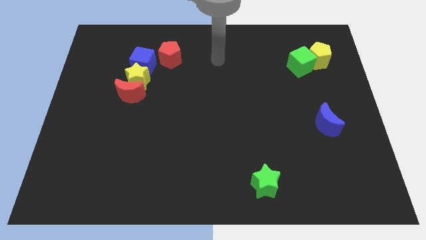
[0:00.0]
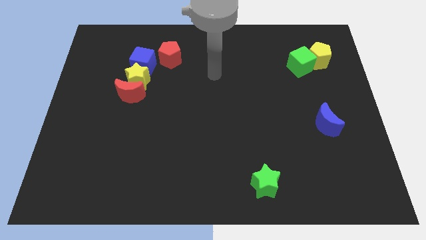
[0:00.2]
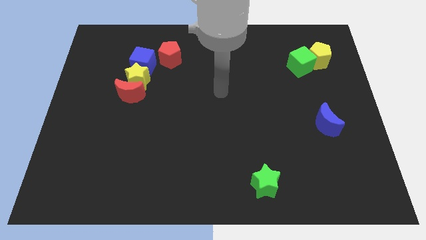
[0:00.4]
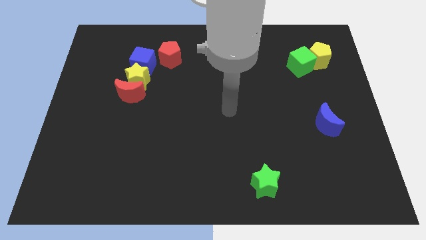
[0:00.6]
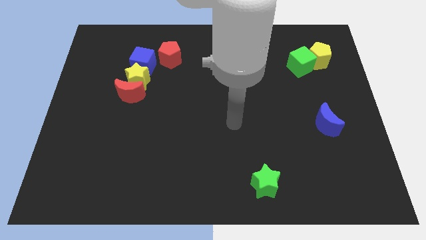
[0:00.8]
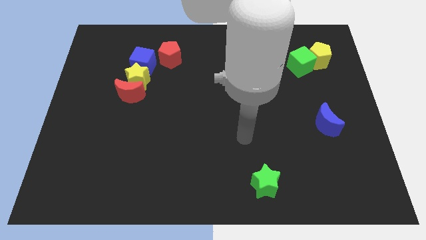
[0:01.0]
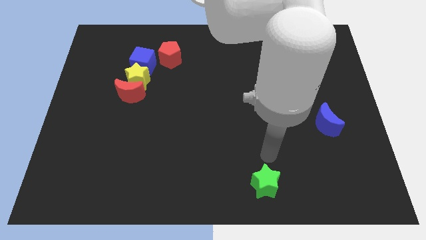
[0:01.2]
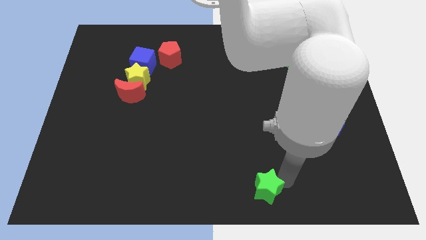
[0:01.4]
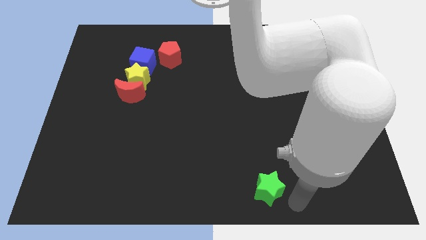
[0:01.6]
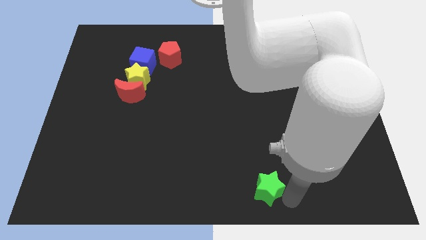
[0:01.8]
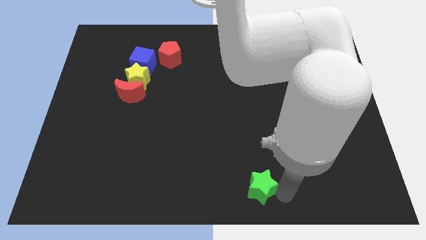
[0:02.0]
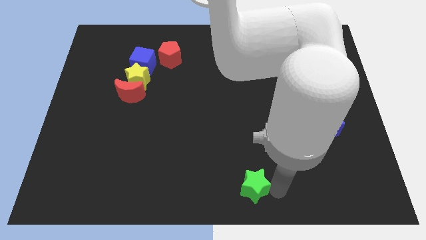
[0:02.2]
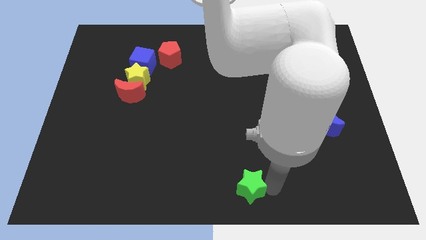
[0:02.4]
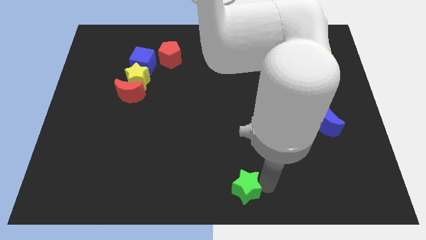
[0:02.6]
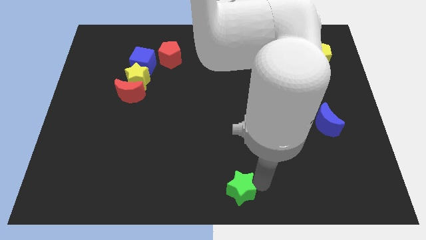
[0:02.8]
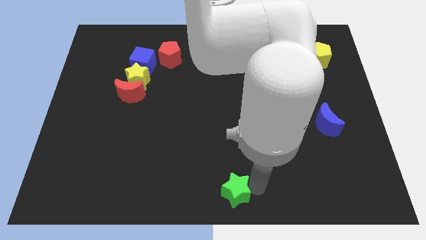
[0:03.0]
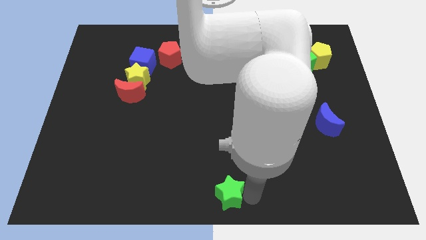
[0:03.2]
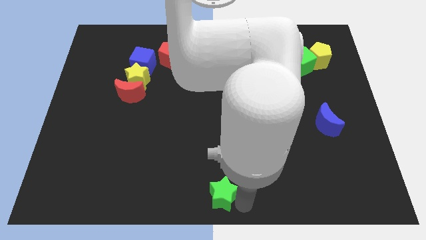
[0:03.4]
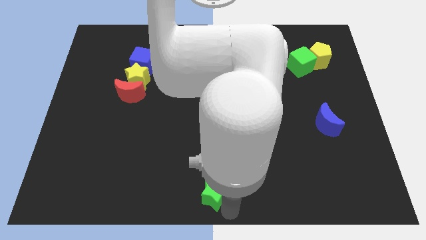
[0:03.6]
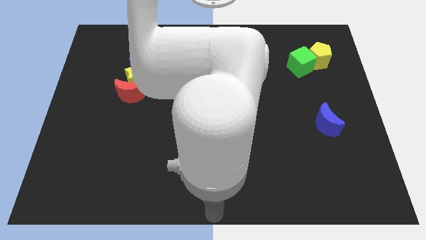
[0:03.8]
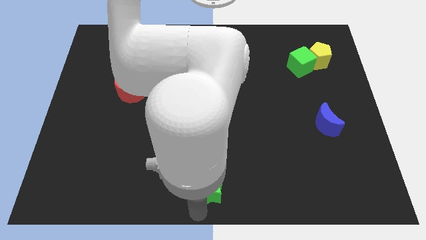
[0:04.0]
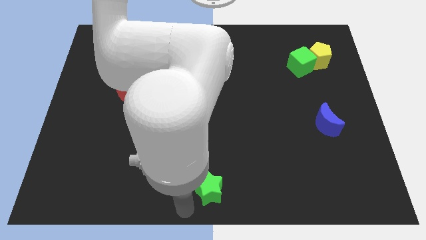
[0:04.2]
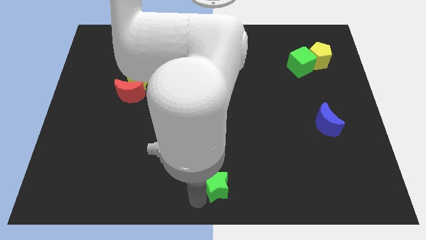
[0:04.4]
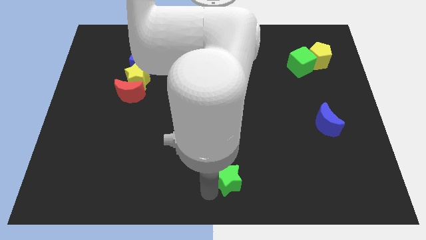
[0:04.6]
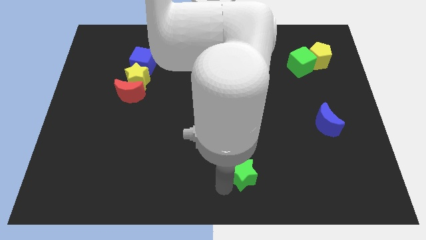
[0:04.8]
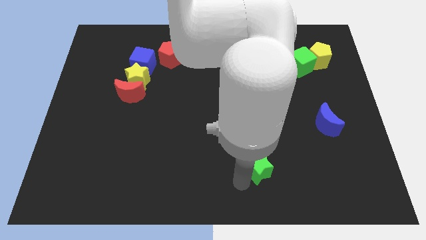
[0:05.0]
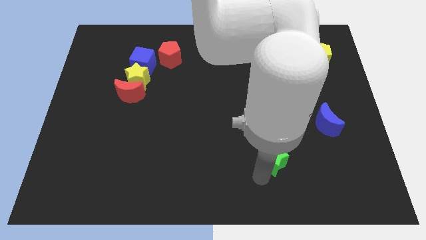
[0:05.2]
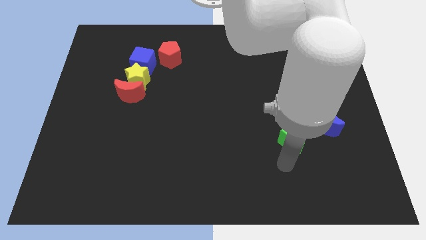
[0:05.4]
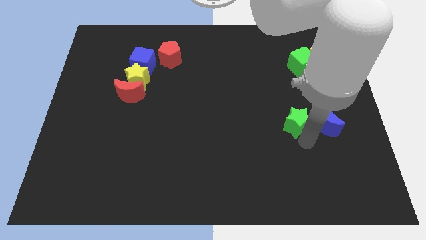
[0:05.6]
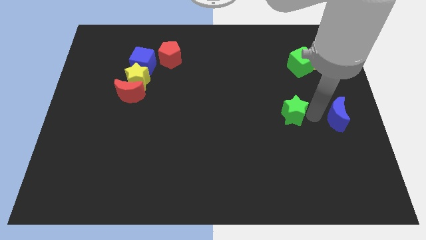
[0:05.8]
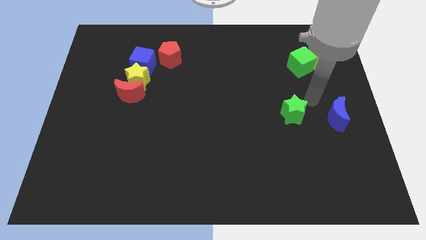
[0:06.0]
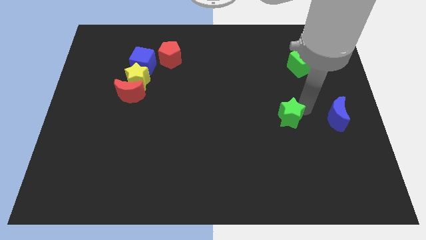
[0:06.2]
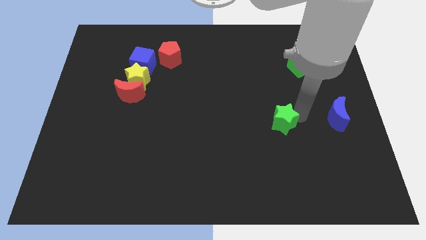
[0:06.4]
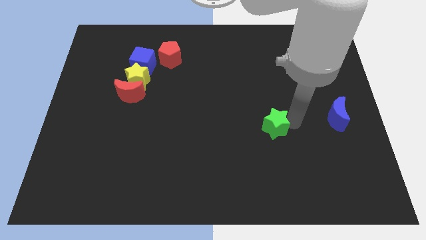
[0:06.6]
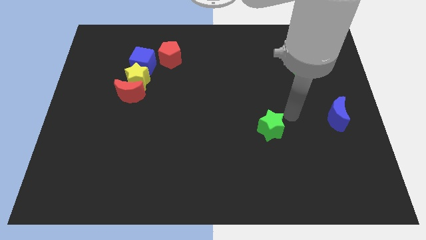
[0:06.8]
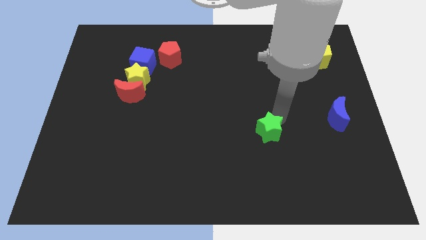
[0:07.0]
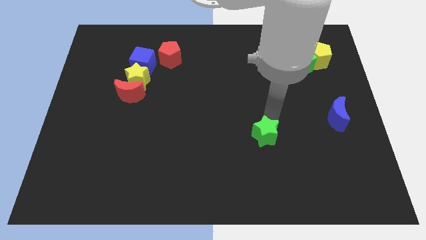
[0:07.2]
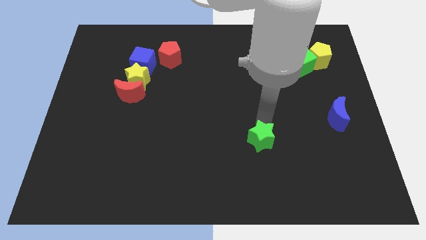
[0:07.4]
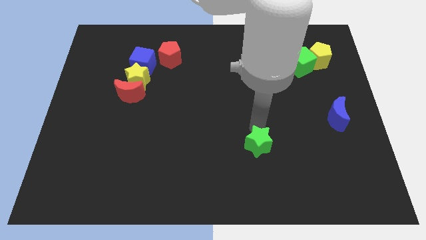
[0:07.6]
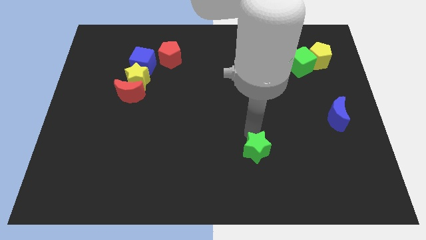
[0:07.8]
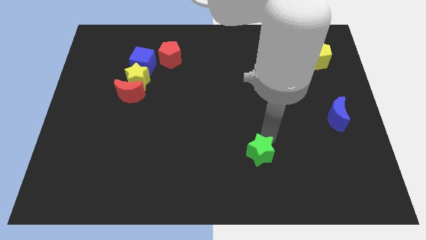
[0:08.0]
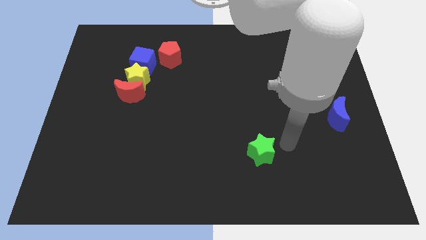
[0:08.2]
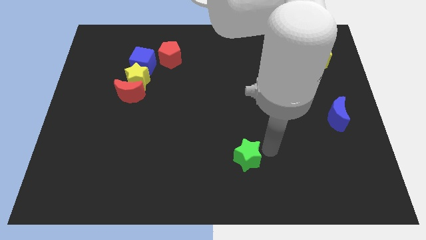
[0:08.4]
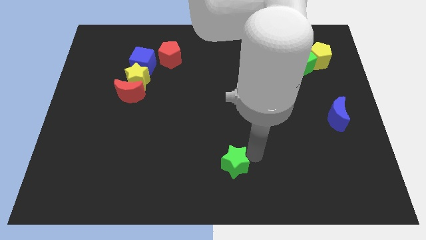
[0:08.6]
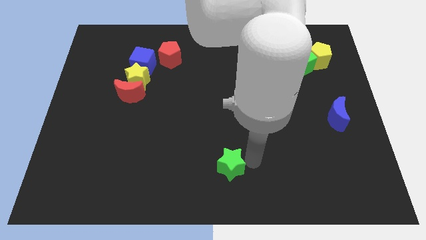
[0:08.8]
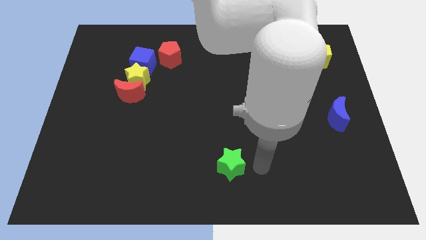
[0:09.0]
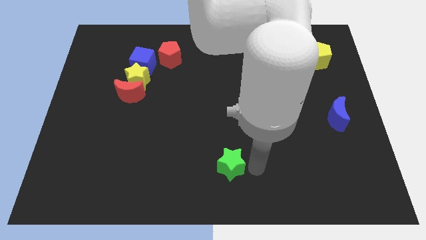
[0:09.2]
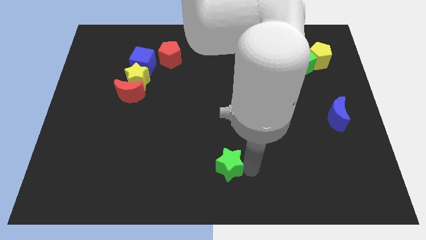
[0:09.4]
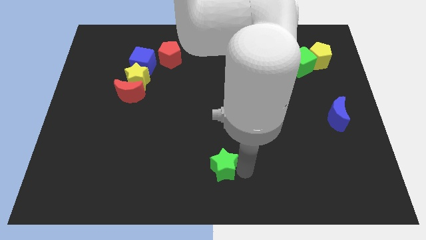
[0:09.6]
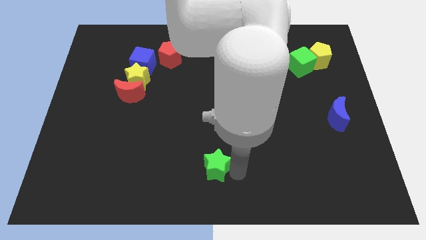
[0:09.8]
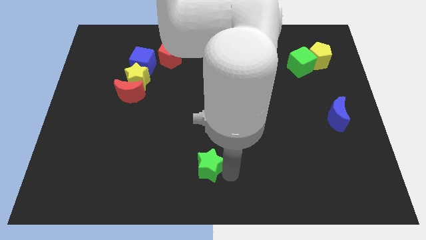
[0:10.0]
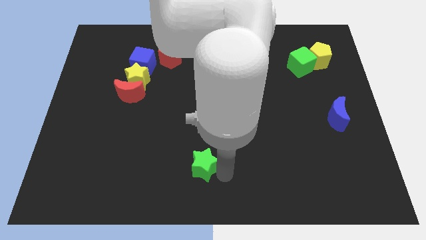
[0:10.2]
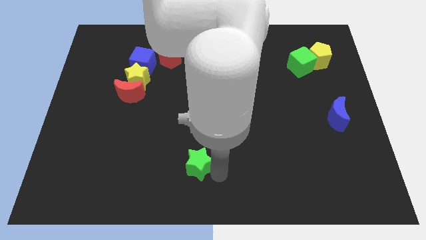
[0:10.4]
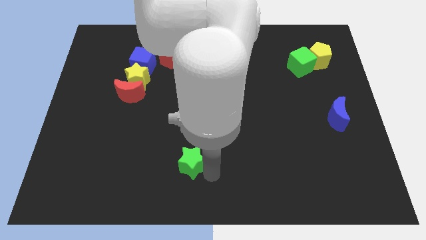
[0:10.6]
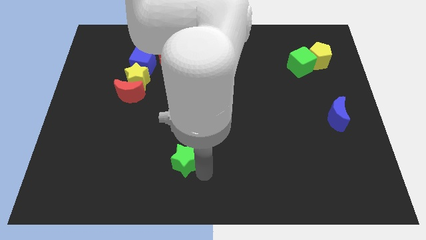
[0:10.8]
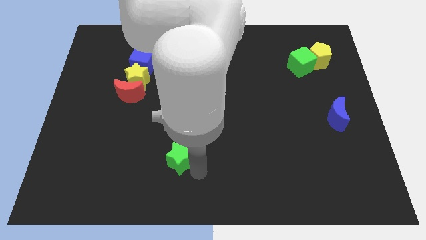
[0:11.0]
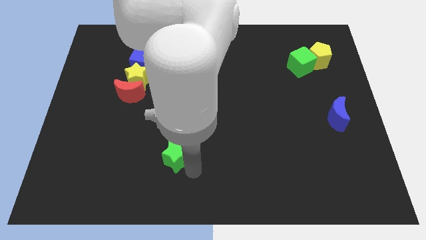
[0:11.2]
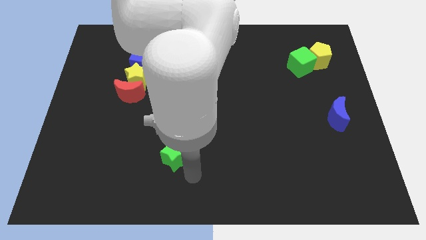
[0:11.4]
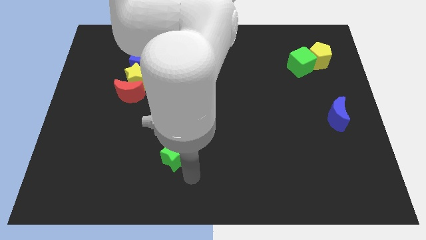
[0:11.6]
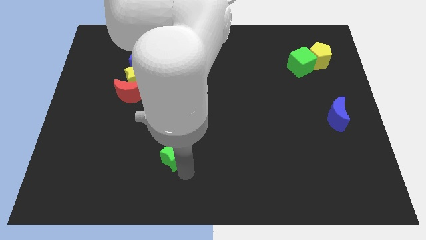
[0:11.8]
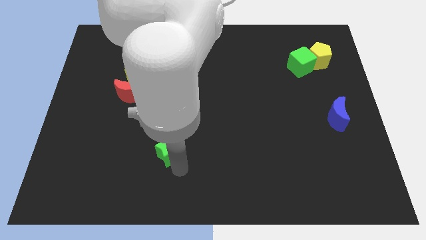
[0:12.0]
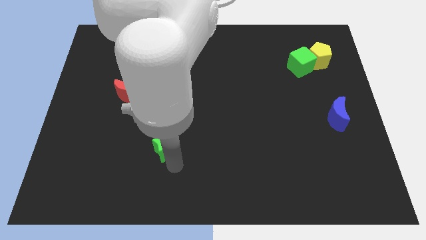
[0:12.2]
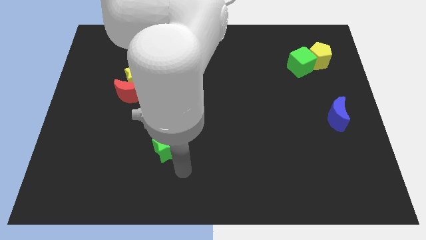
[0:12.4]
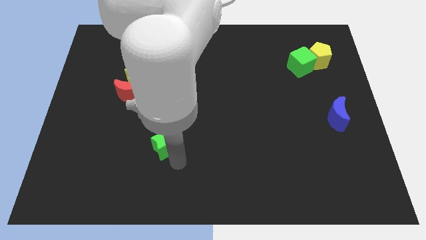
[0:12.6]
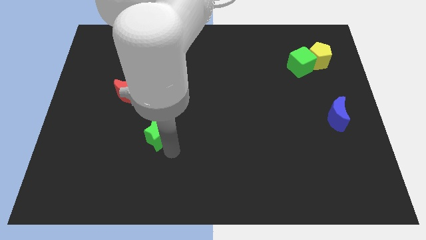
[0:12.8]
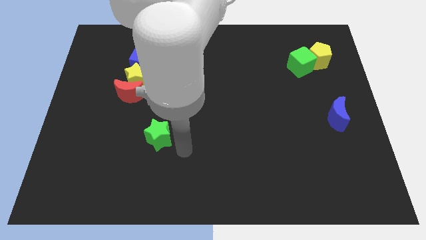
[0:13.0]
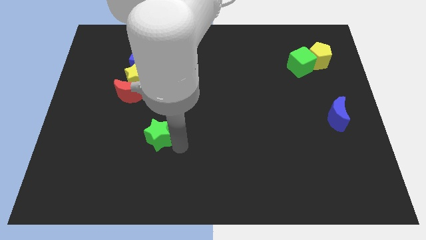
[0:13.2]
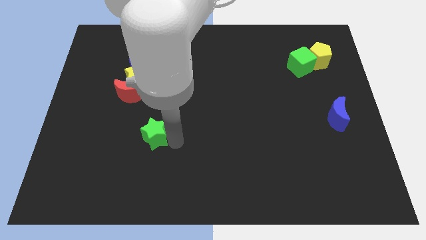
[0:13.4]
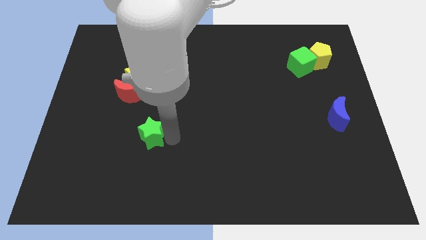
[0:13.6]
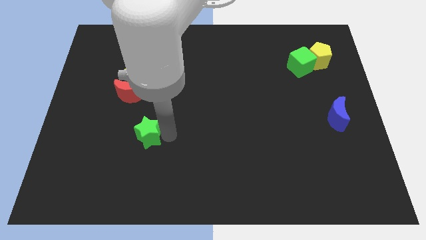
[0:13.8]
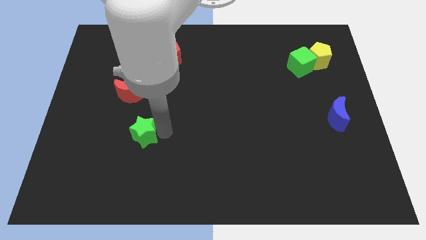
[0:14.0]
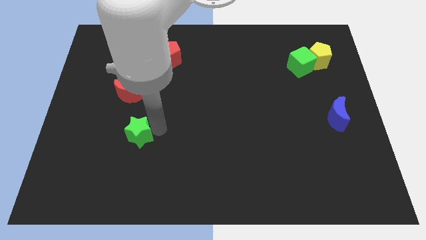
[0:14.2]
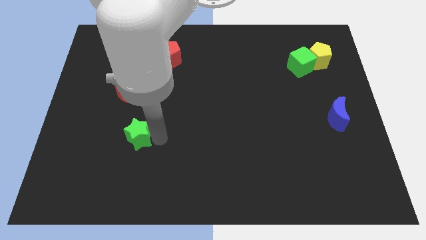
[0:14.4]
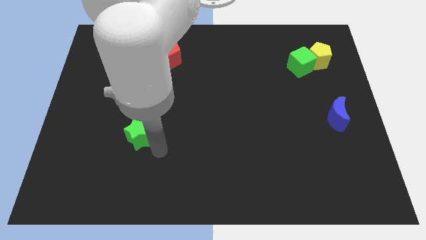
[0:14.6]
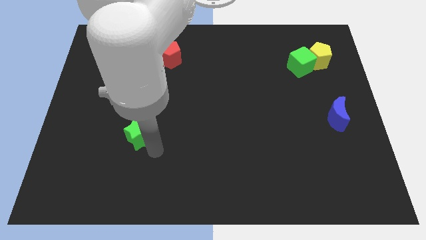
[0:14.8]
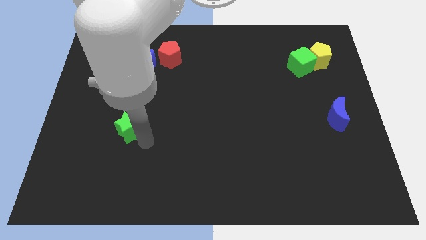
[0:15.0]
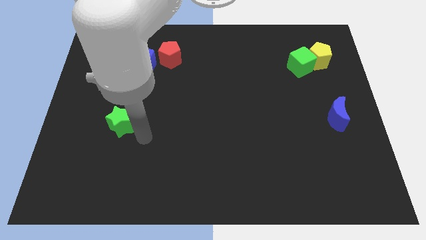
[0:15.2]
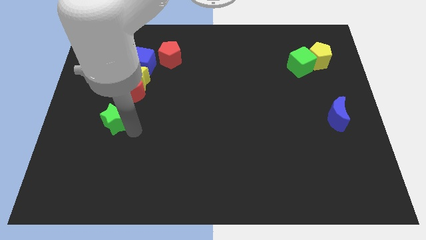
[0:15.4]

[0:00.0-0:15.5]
put the green star to the bottom left of the red moon
